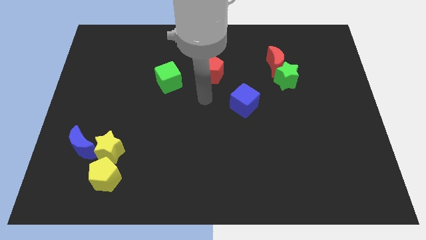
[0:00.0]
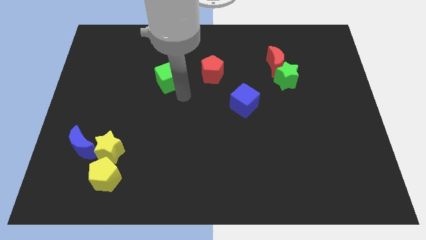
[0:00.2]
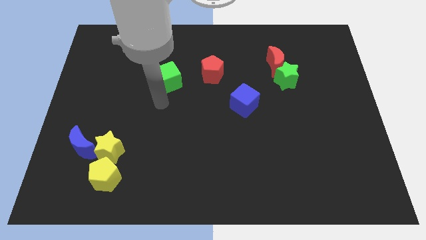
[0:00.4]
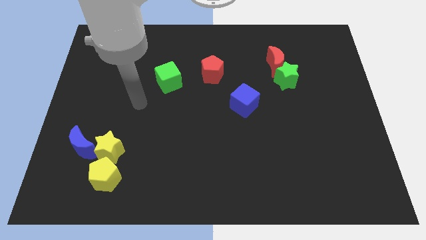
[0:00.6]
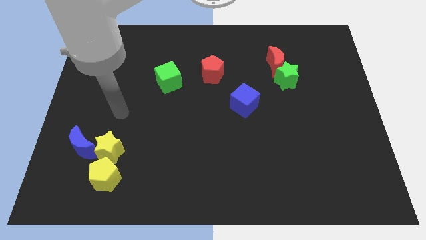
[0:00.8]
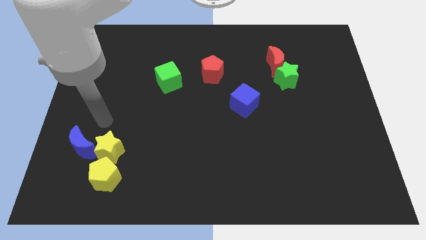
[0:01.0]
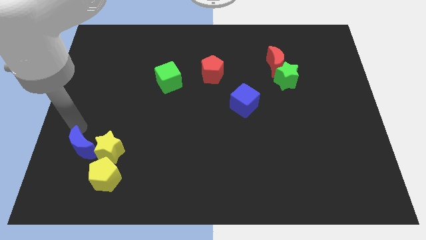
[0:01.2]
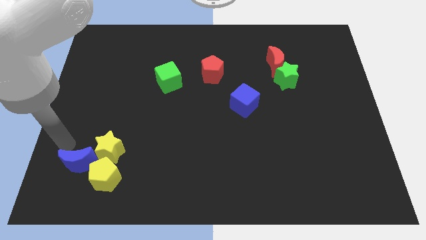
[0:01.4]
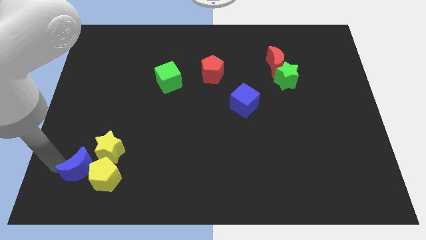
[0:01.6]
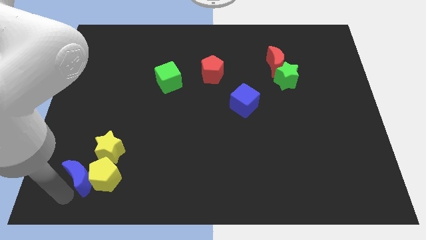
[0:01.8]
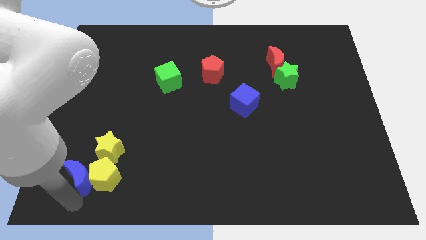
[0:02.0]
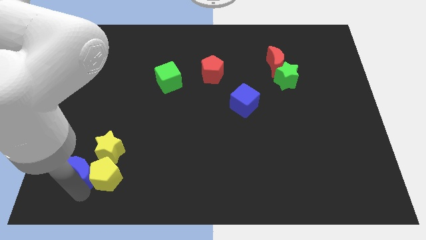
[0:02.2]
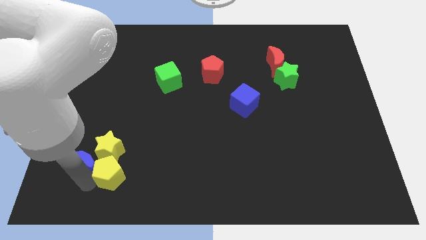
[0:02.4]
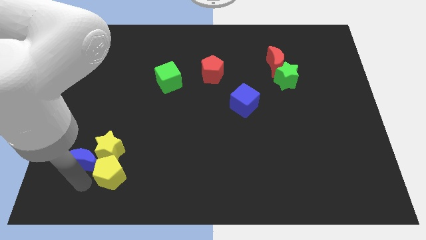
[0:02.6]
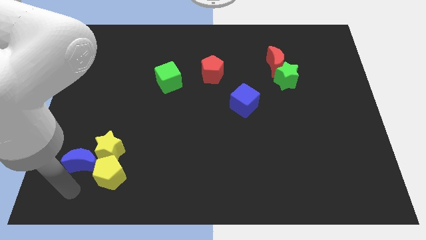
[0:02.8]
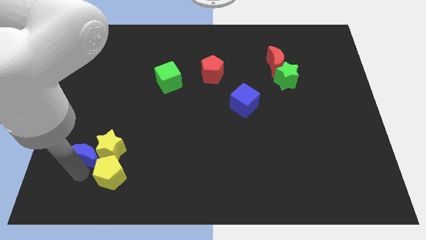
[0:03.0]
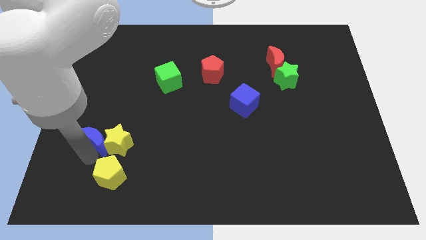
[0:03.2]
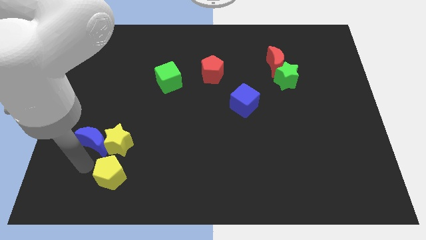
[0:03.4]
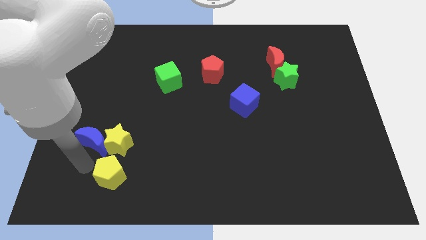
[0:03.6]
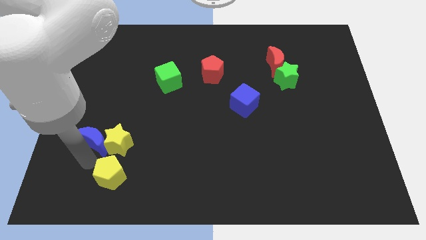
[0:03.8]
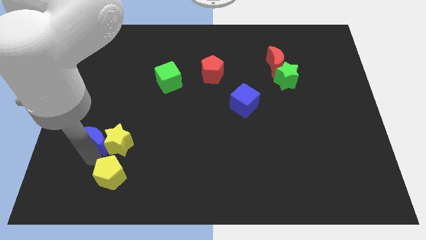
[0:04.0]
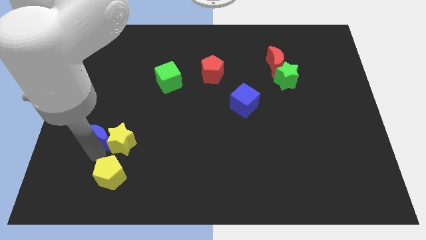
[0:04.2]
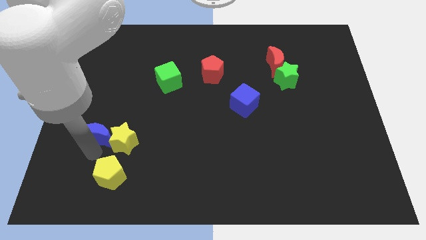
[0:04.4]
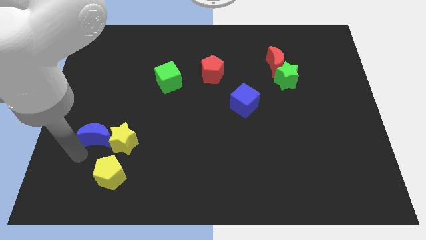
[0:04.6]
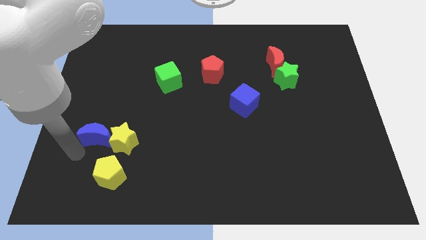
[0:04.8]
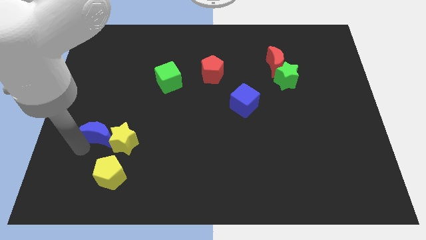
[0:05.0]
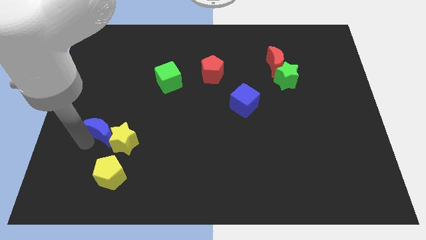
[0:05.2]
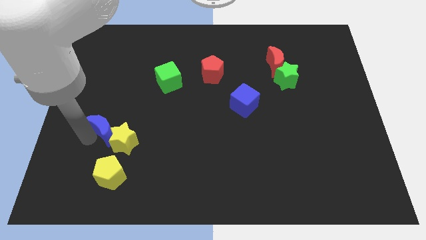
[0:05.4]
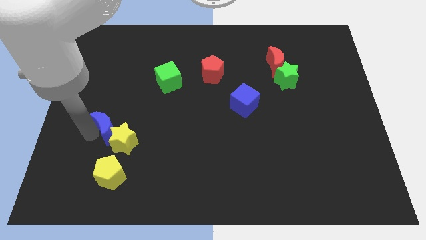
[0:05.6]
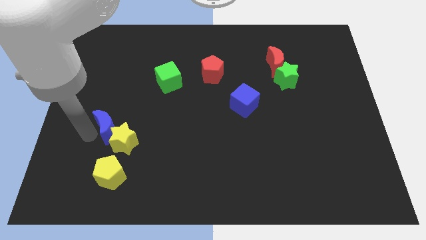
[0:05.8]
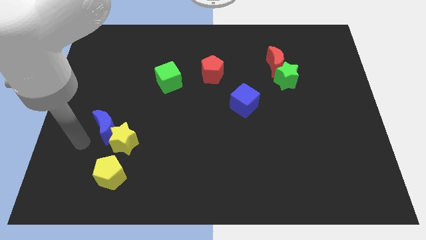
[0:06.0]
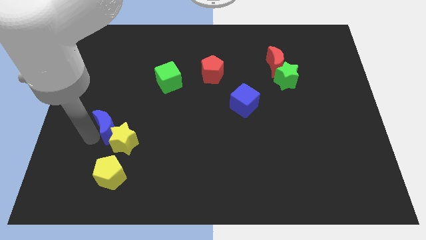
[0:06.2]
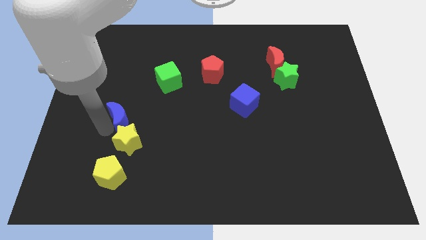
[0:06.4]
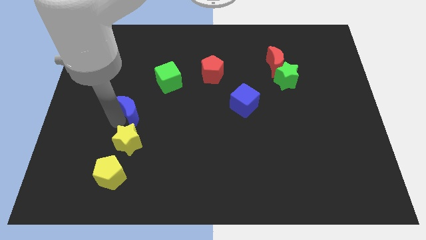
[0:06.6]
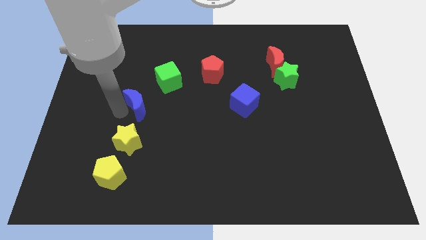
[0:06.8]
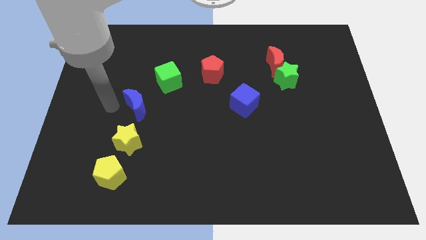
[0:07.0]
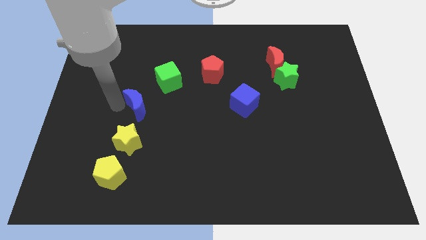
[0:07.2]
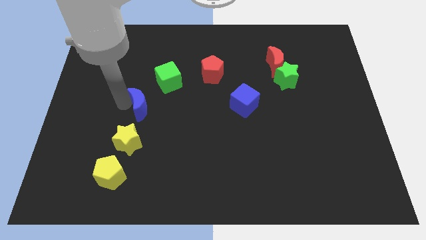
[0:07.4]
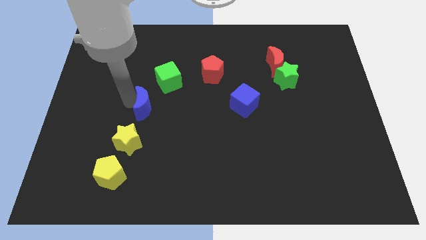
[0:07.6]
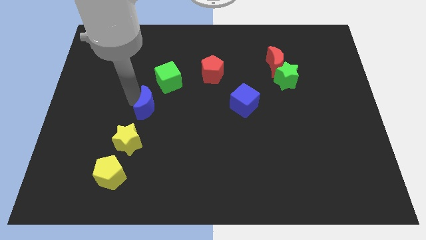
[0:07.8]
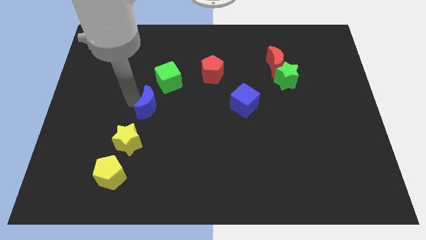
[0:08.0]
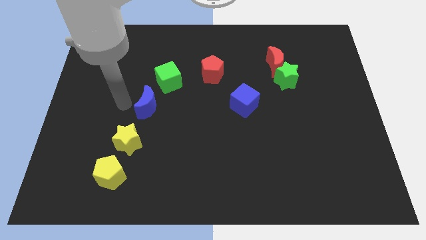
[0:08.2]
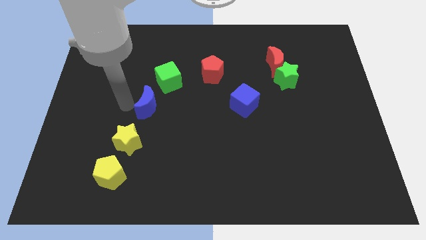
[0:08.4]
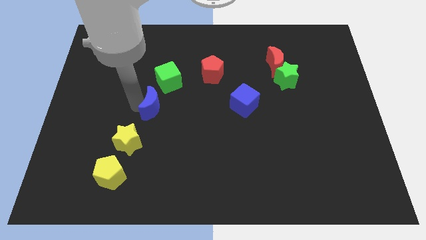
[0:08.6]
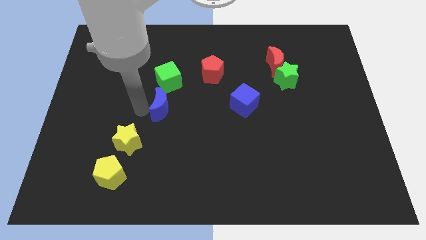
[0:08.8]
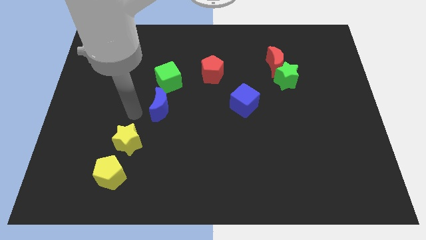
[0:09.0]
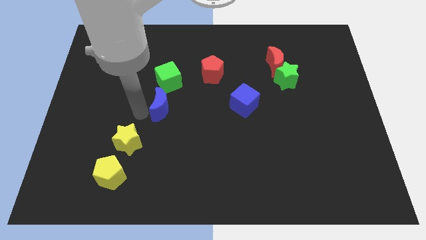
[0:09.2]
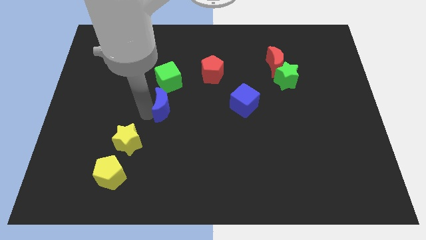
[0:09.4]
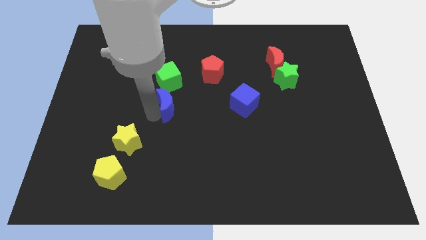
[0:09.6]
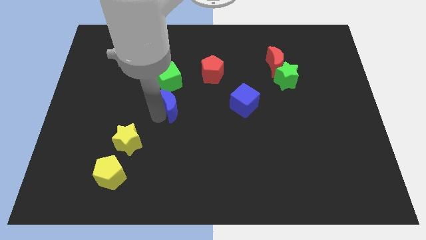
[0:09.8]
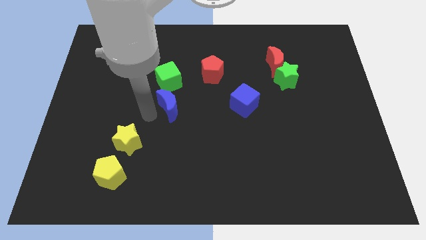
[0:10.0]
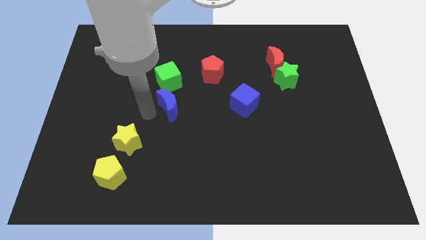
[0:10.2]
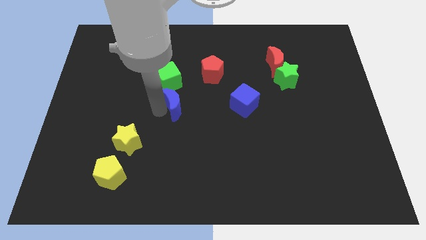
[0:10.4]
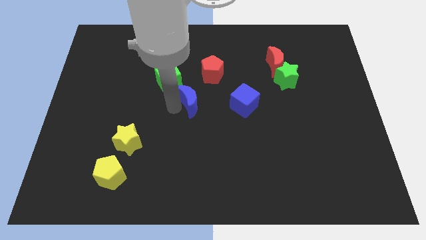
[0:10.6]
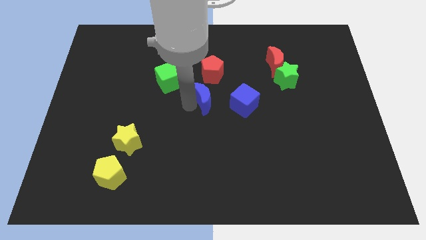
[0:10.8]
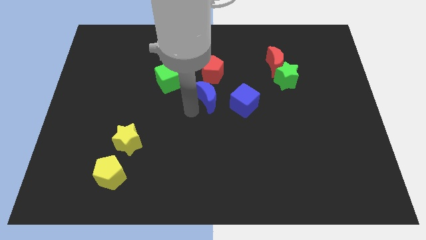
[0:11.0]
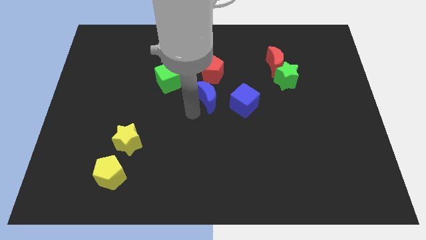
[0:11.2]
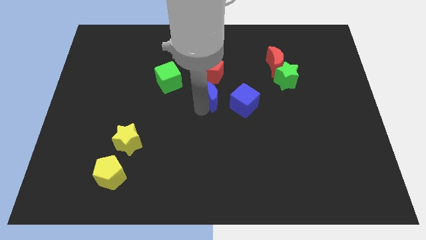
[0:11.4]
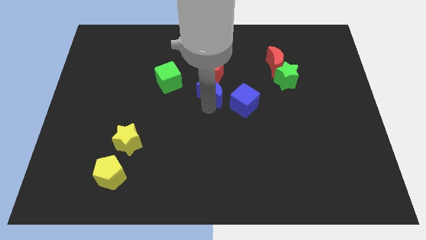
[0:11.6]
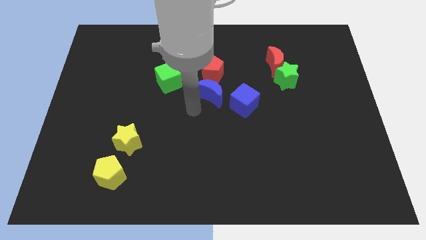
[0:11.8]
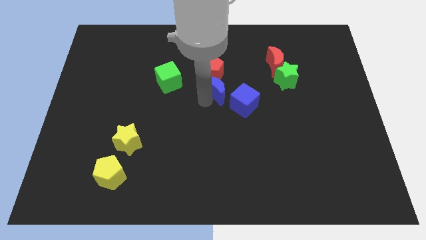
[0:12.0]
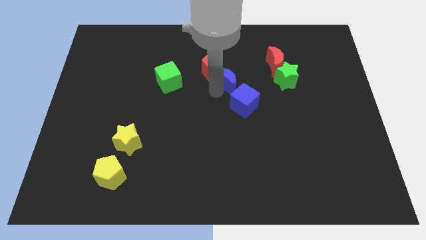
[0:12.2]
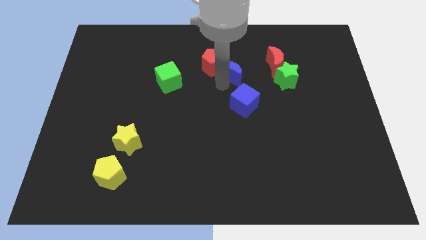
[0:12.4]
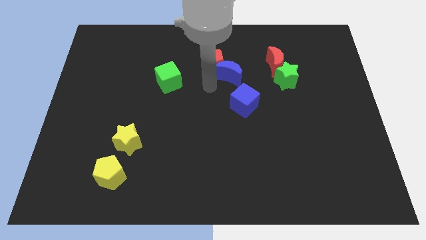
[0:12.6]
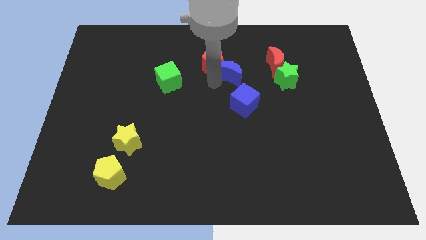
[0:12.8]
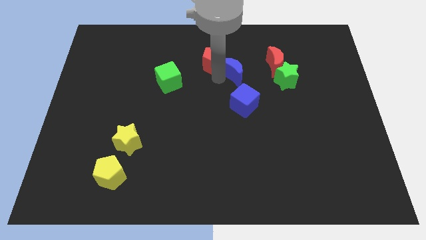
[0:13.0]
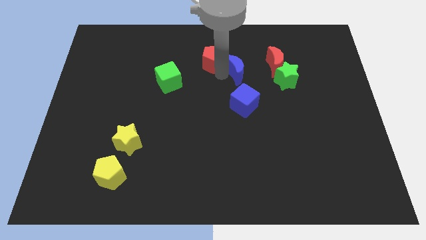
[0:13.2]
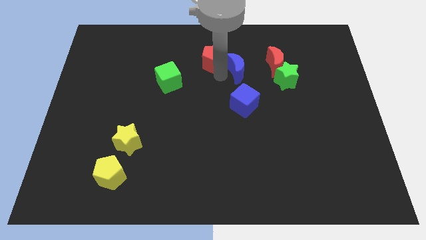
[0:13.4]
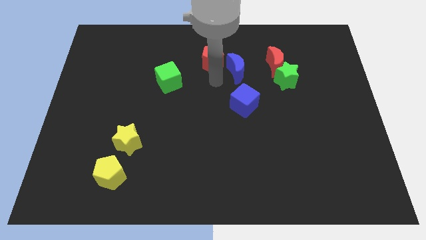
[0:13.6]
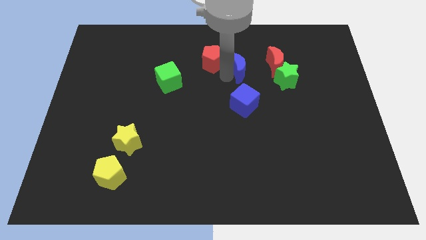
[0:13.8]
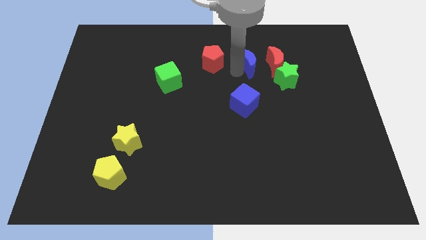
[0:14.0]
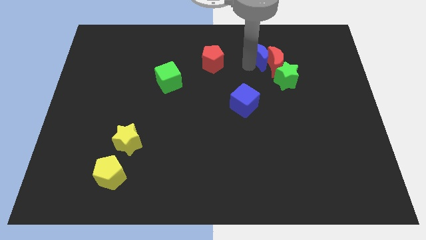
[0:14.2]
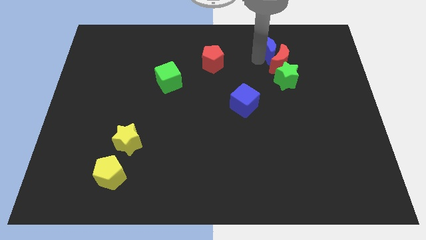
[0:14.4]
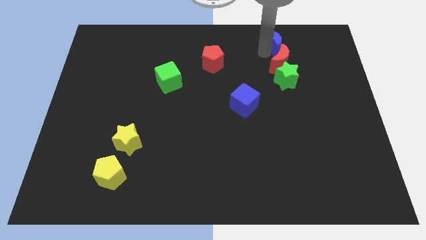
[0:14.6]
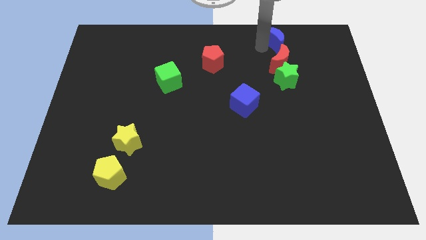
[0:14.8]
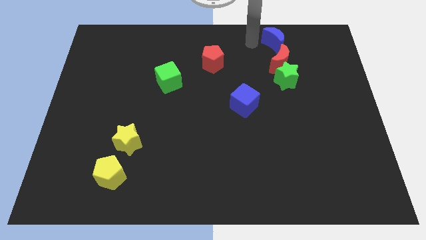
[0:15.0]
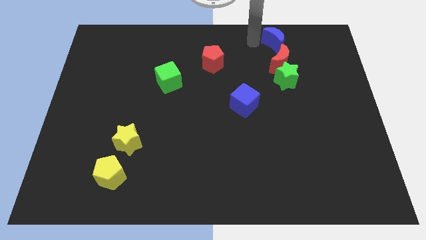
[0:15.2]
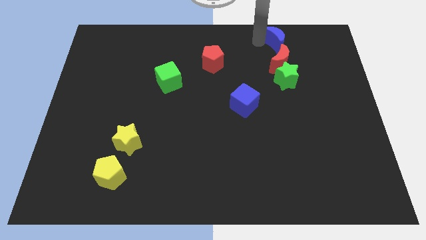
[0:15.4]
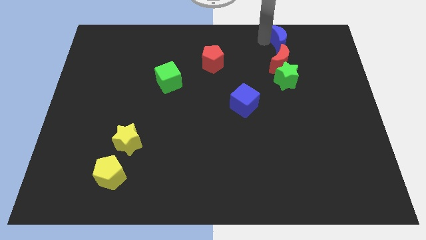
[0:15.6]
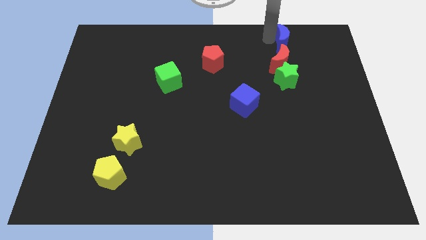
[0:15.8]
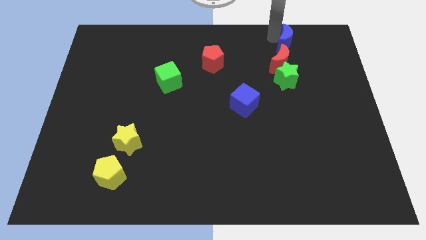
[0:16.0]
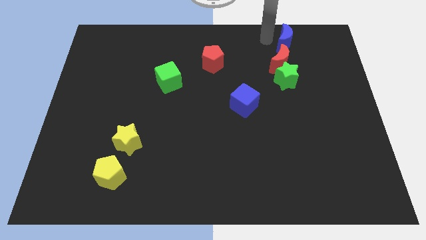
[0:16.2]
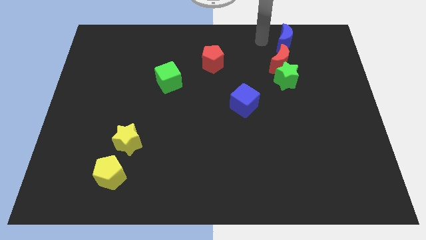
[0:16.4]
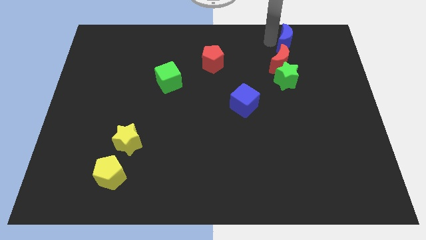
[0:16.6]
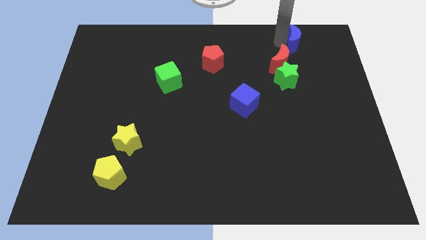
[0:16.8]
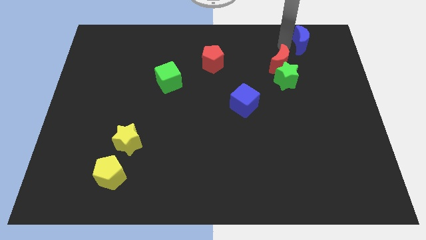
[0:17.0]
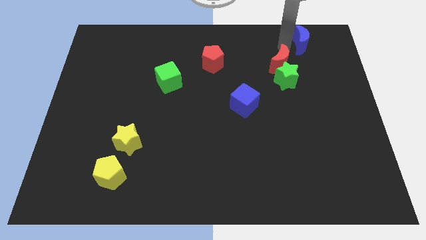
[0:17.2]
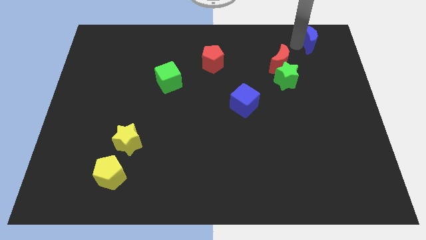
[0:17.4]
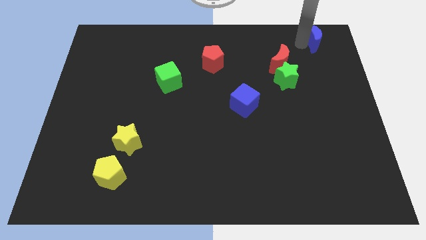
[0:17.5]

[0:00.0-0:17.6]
slide the blue moon to the upper right corner
